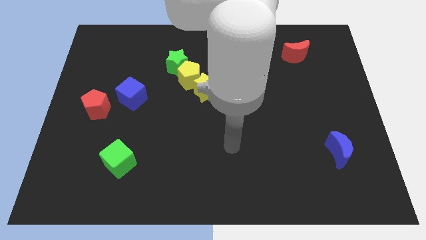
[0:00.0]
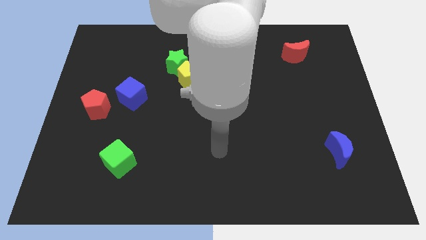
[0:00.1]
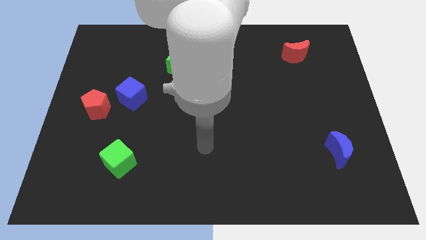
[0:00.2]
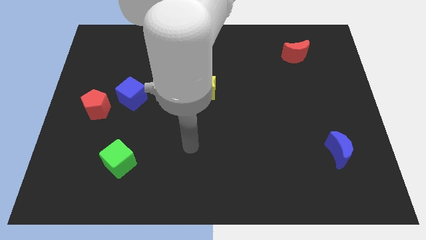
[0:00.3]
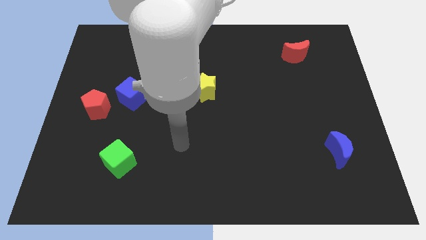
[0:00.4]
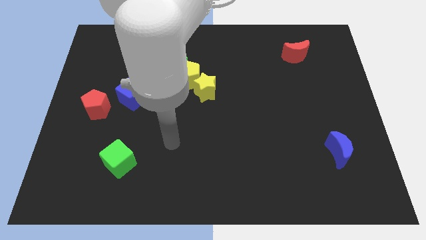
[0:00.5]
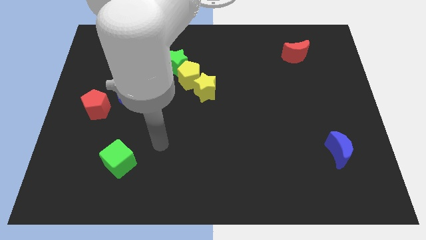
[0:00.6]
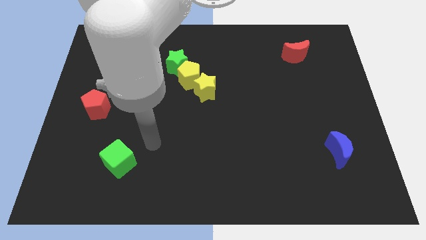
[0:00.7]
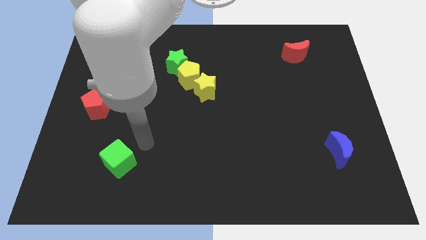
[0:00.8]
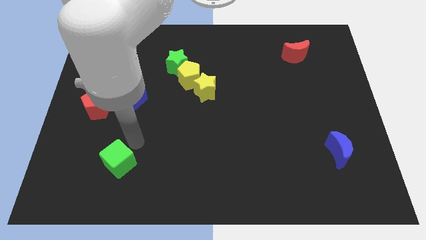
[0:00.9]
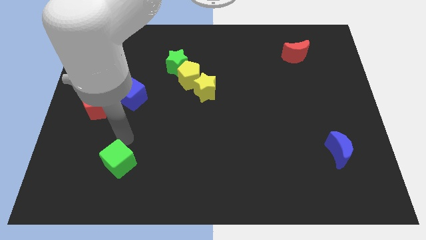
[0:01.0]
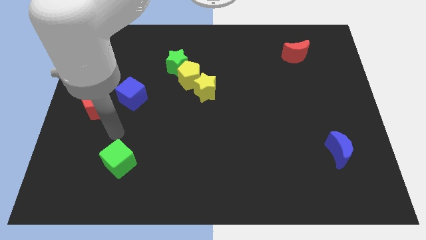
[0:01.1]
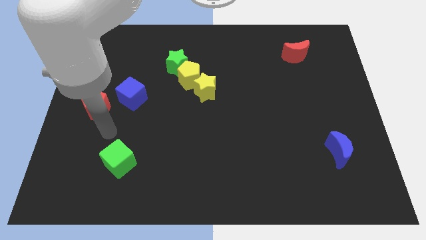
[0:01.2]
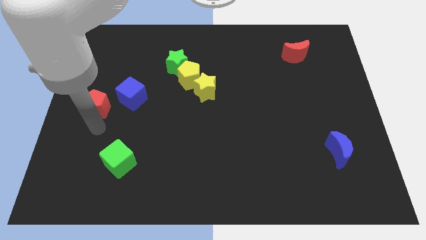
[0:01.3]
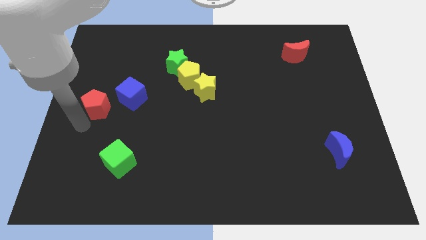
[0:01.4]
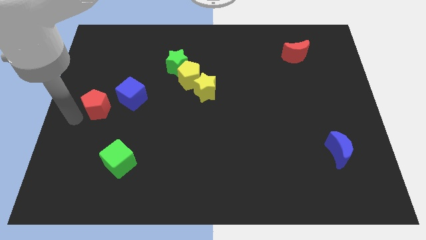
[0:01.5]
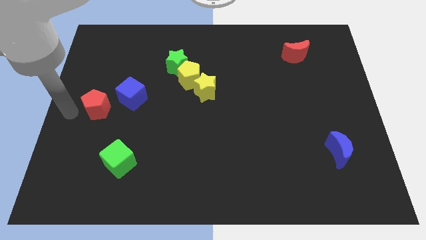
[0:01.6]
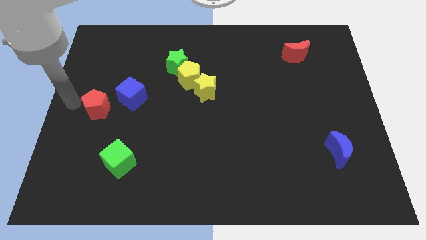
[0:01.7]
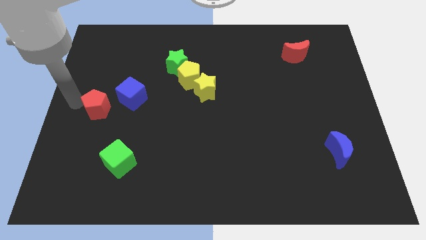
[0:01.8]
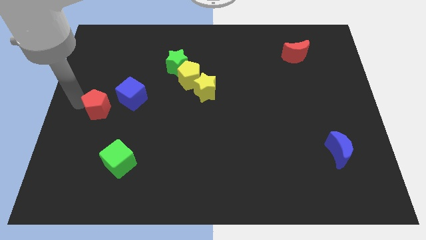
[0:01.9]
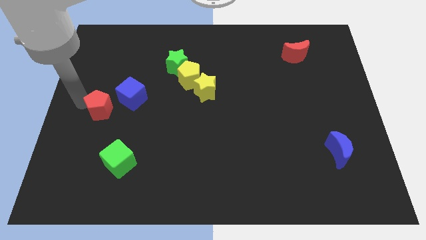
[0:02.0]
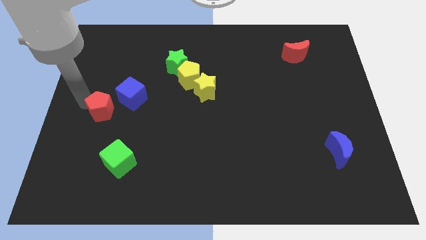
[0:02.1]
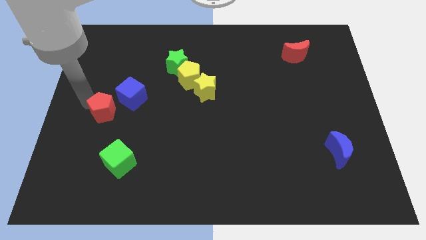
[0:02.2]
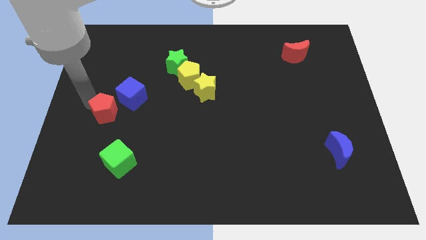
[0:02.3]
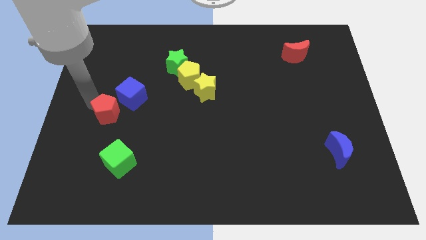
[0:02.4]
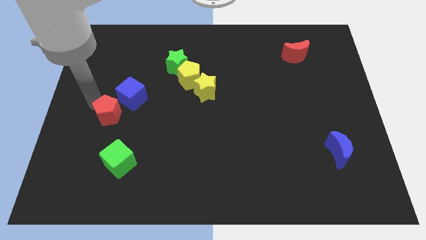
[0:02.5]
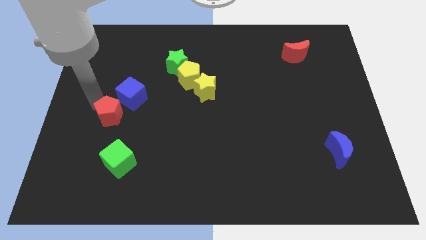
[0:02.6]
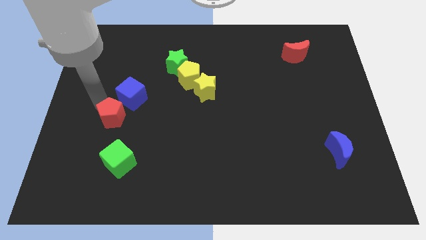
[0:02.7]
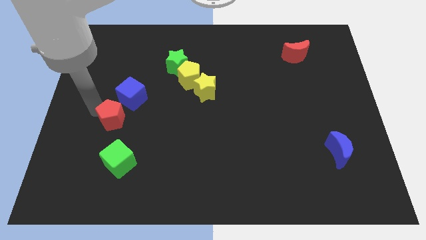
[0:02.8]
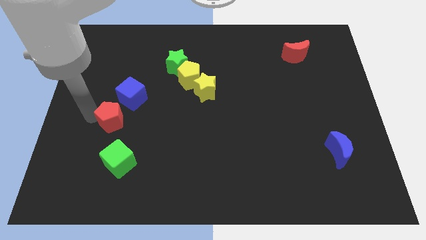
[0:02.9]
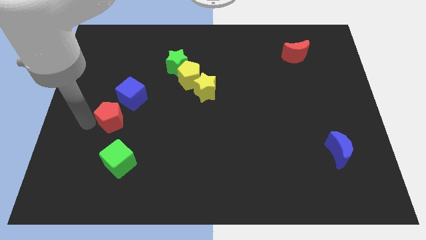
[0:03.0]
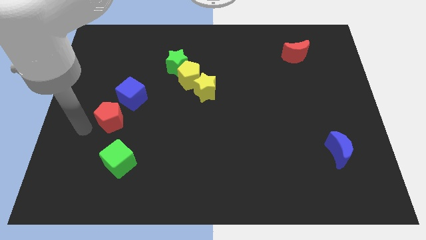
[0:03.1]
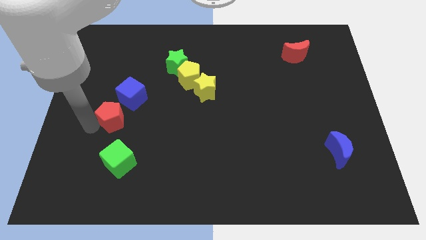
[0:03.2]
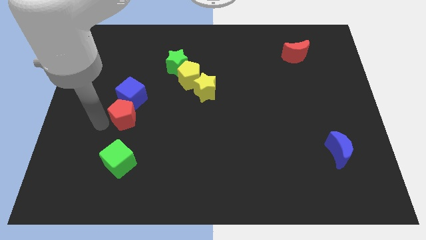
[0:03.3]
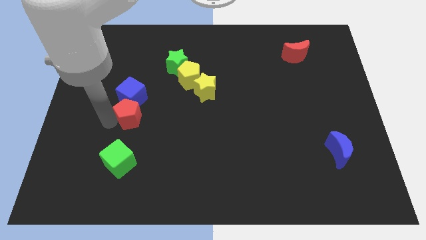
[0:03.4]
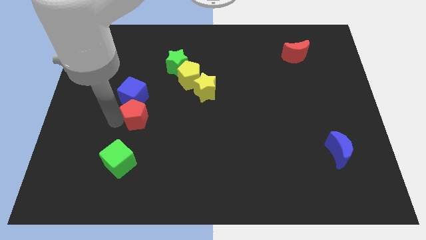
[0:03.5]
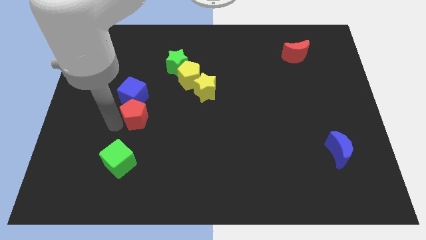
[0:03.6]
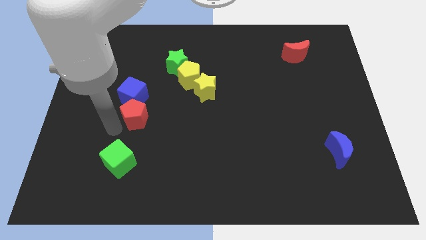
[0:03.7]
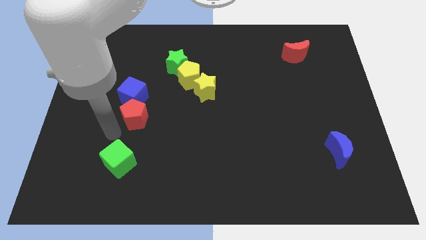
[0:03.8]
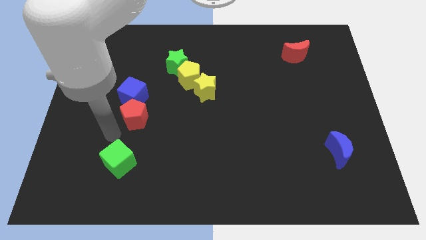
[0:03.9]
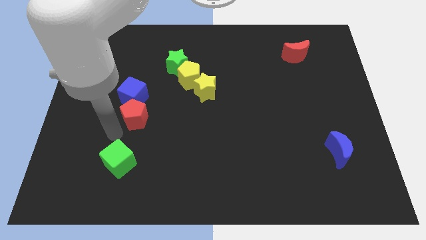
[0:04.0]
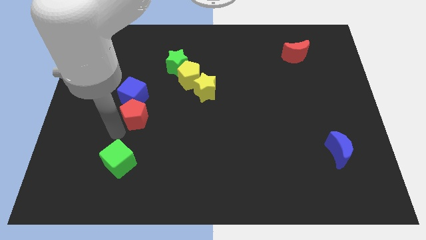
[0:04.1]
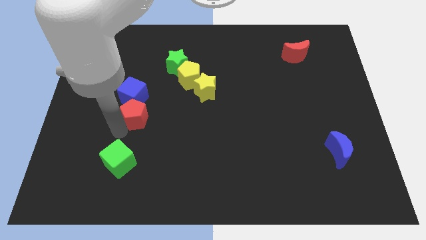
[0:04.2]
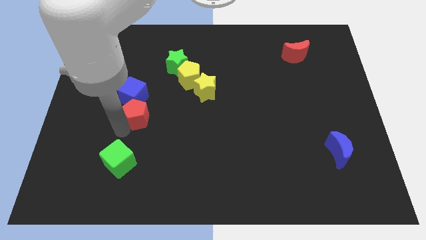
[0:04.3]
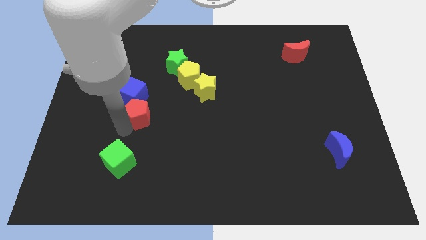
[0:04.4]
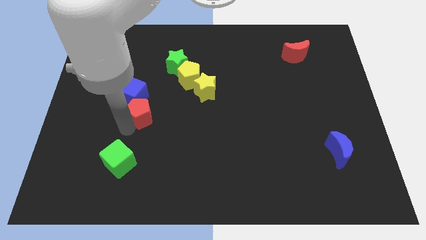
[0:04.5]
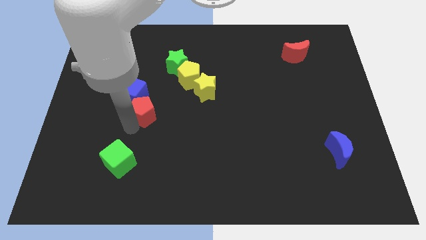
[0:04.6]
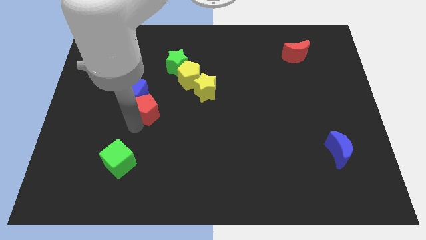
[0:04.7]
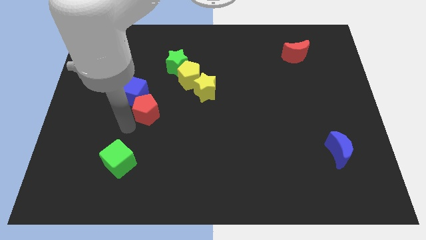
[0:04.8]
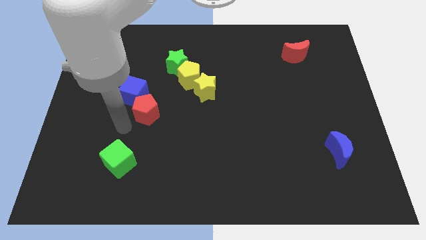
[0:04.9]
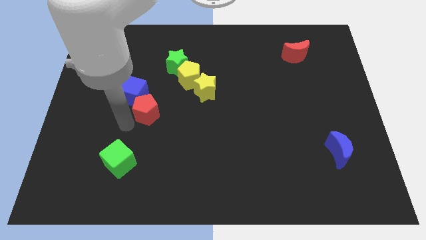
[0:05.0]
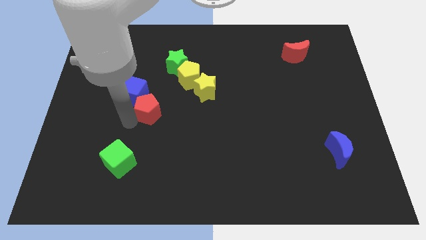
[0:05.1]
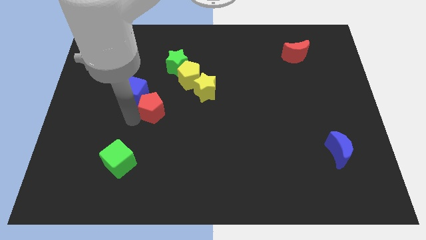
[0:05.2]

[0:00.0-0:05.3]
push the red pentagon just right of the blue cube

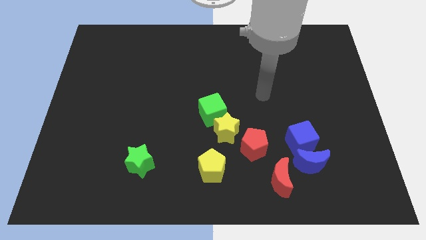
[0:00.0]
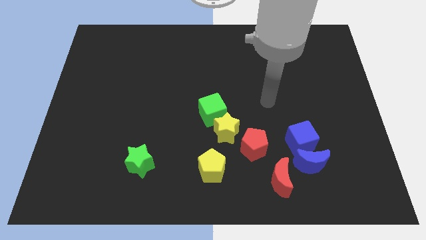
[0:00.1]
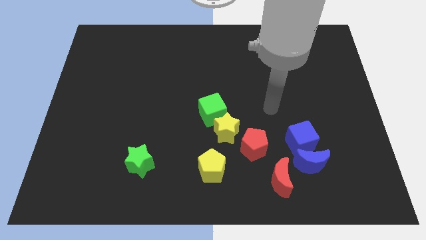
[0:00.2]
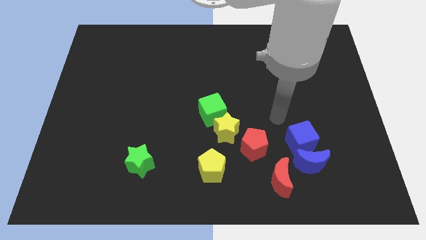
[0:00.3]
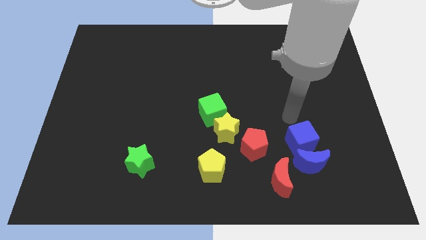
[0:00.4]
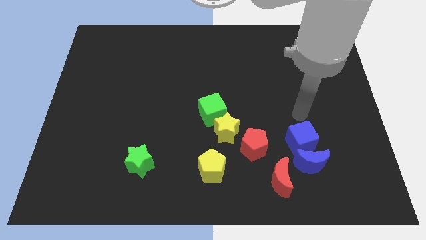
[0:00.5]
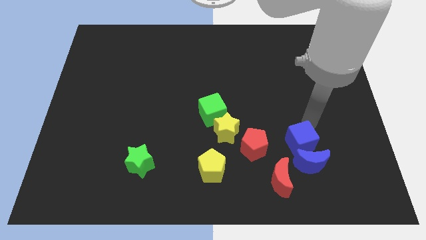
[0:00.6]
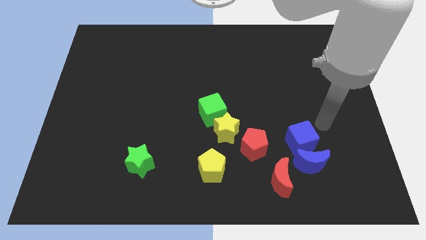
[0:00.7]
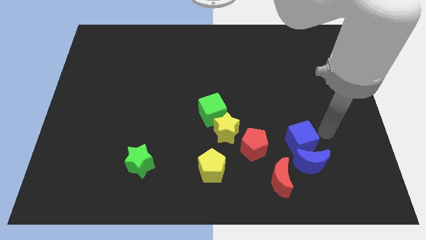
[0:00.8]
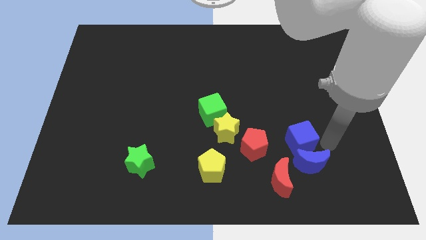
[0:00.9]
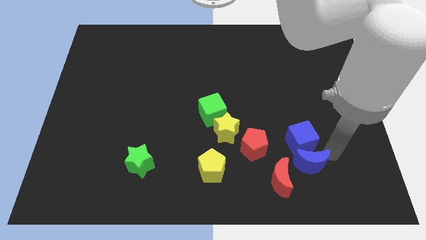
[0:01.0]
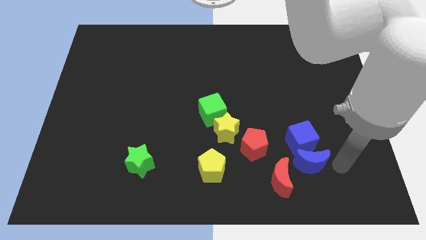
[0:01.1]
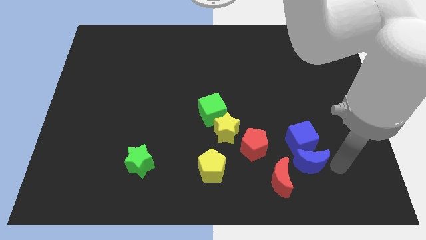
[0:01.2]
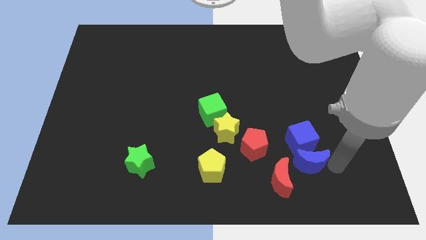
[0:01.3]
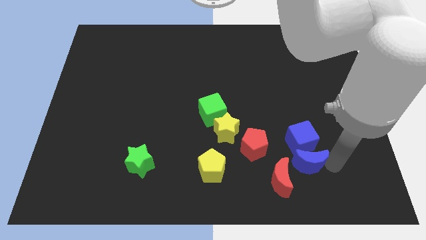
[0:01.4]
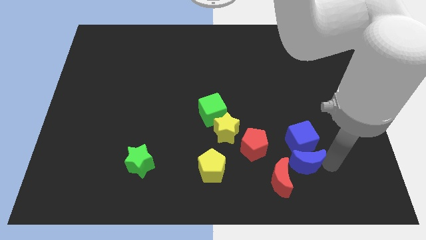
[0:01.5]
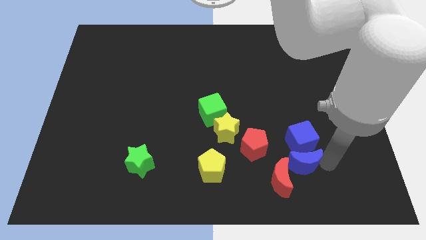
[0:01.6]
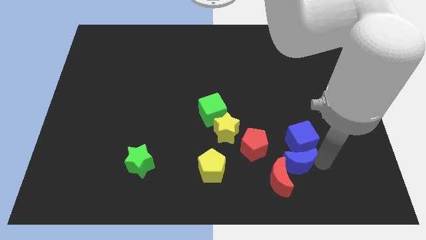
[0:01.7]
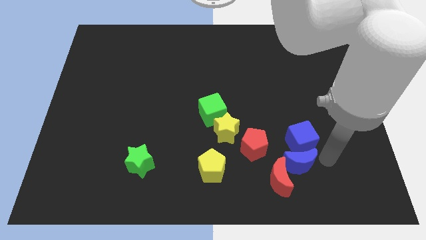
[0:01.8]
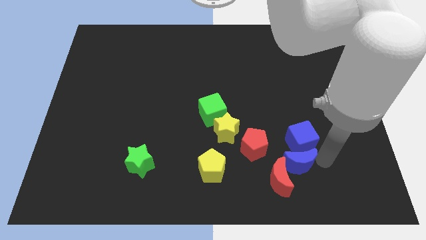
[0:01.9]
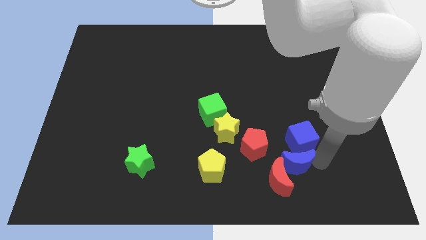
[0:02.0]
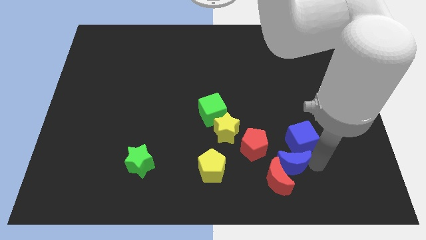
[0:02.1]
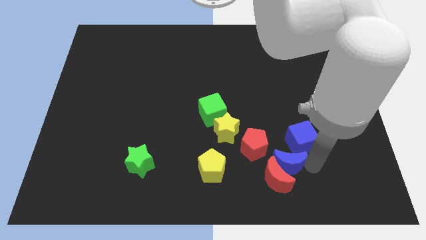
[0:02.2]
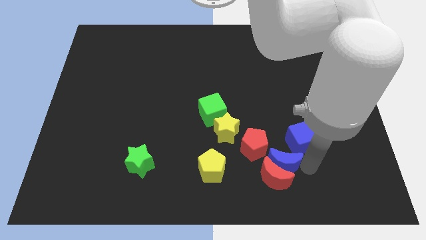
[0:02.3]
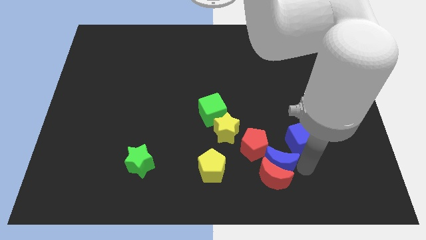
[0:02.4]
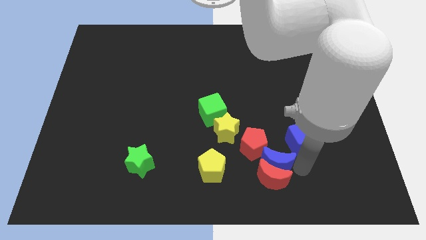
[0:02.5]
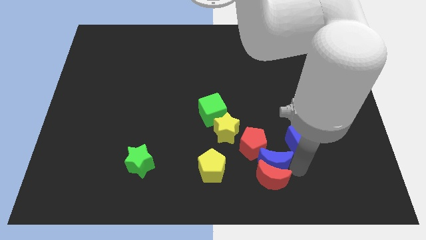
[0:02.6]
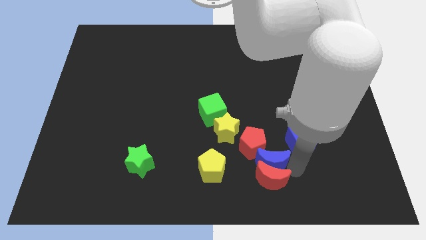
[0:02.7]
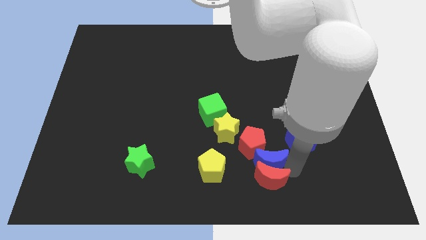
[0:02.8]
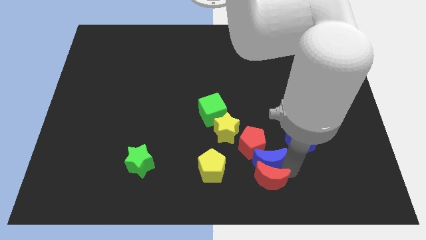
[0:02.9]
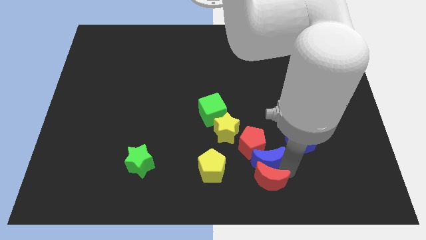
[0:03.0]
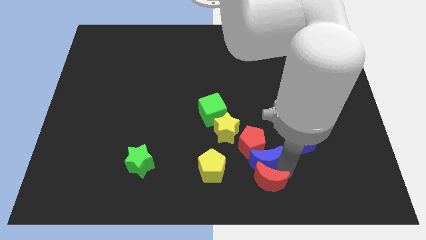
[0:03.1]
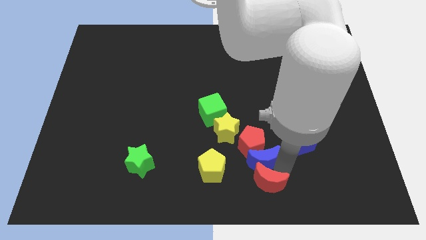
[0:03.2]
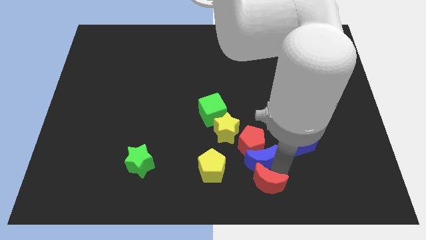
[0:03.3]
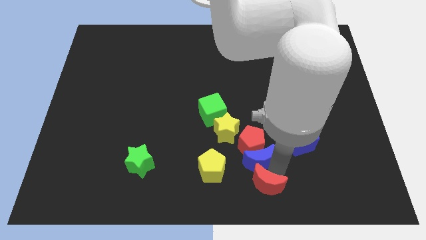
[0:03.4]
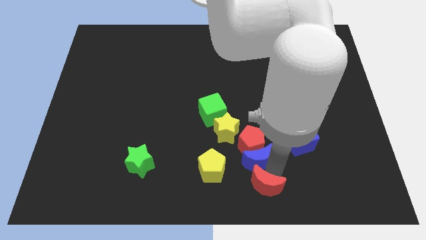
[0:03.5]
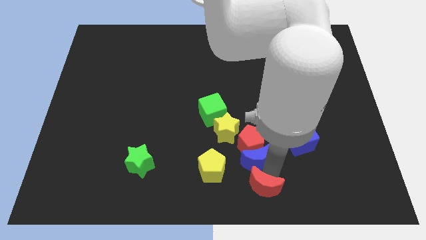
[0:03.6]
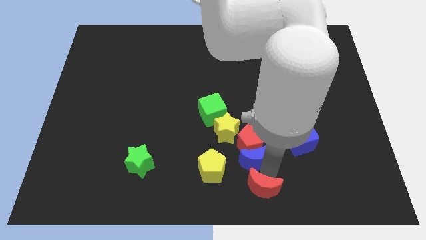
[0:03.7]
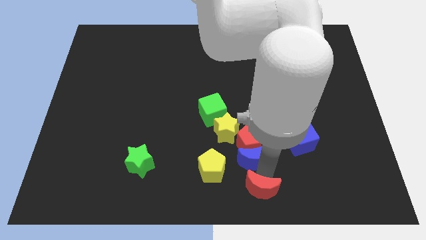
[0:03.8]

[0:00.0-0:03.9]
push the blue moon diagonally up and to the right of the yellow pentagon
